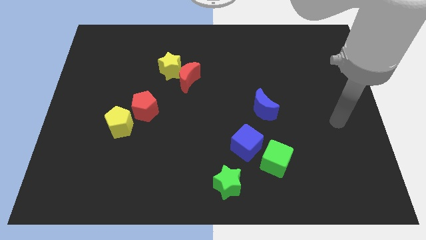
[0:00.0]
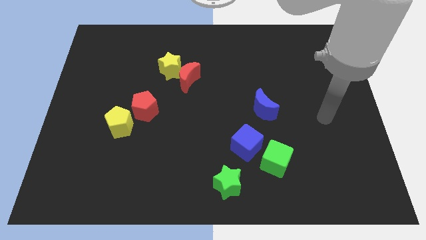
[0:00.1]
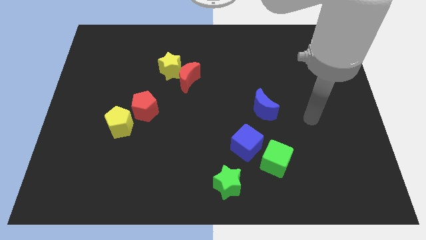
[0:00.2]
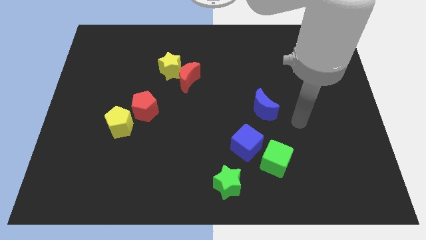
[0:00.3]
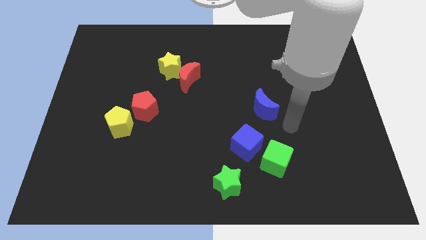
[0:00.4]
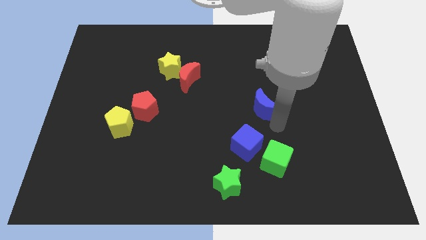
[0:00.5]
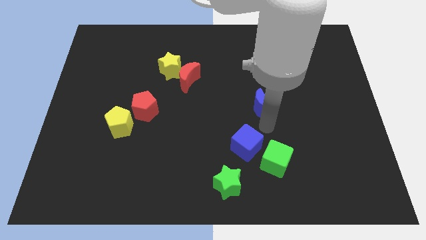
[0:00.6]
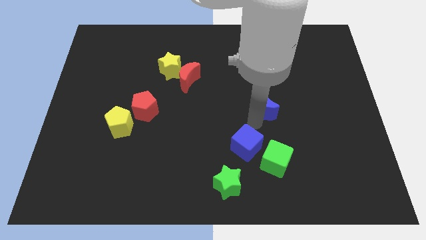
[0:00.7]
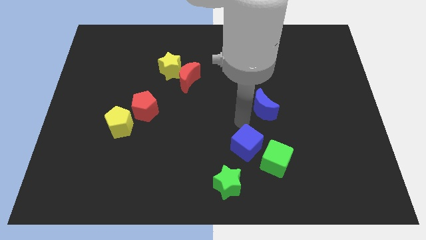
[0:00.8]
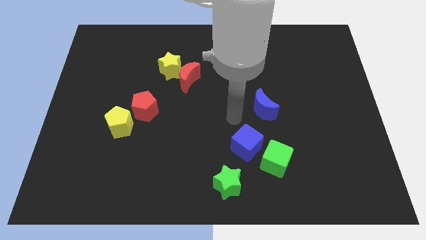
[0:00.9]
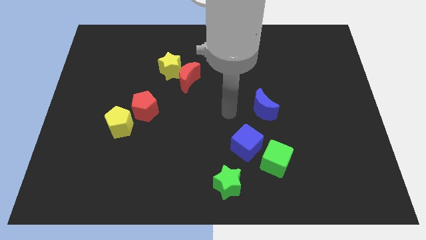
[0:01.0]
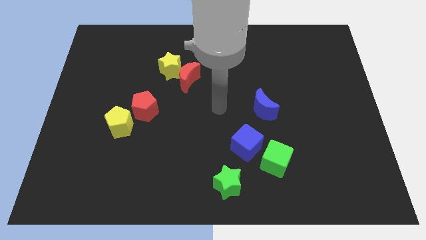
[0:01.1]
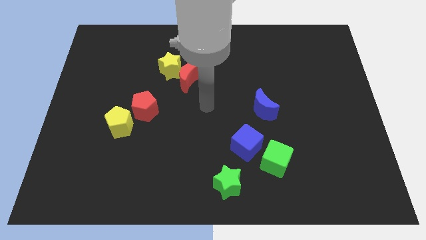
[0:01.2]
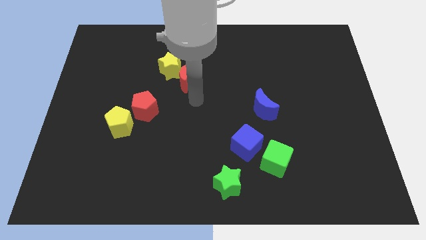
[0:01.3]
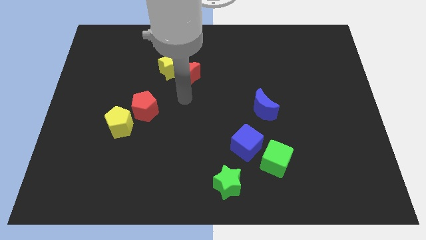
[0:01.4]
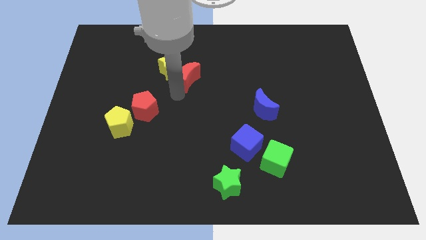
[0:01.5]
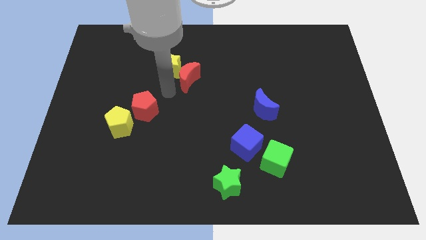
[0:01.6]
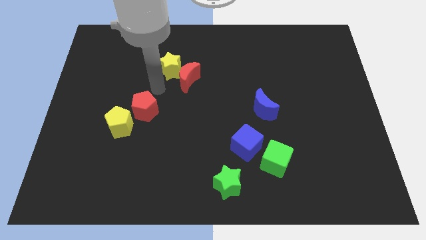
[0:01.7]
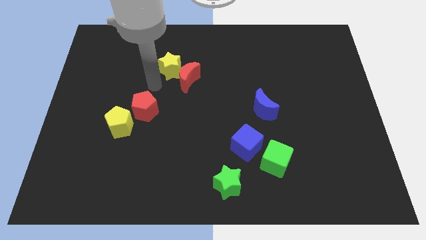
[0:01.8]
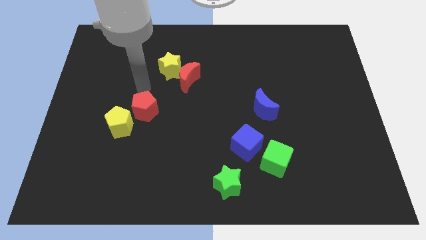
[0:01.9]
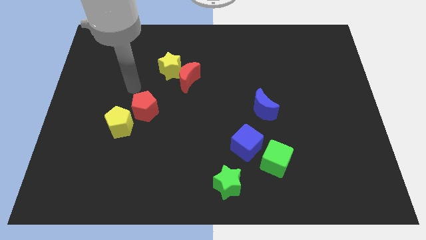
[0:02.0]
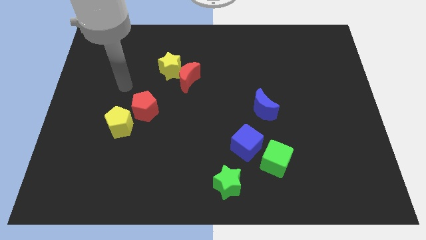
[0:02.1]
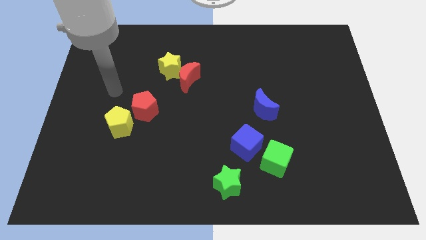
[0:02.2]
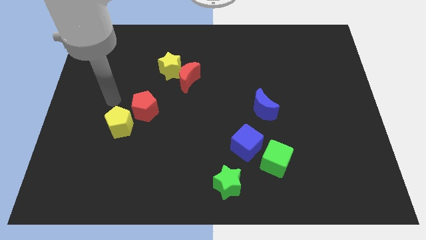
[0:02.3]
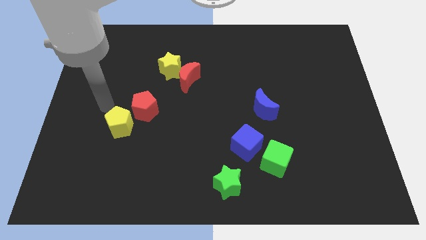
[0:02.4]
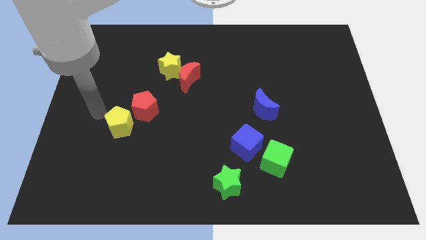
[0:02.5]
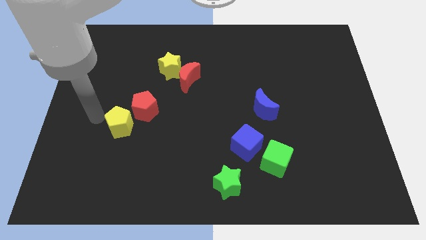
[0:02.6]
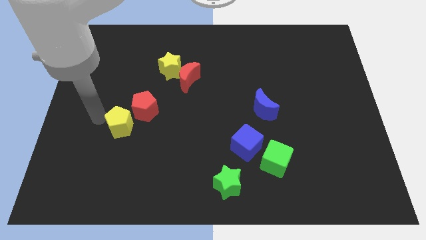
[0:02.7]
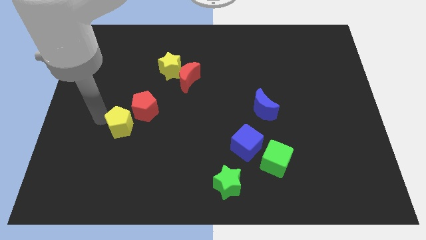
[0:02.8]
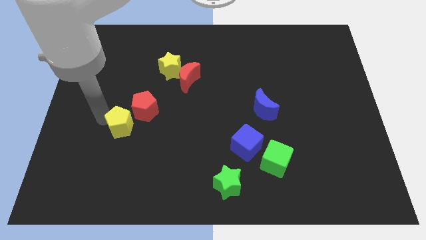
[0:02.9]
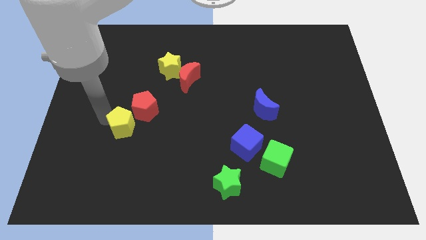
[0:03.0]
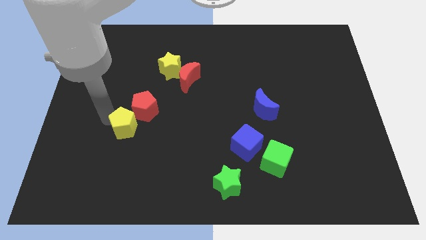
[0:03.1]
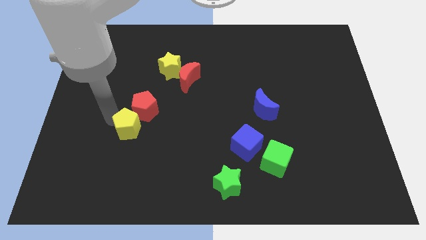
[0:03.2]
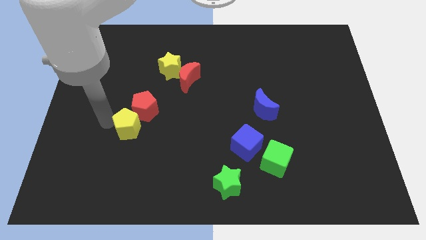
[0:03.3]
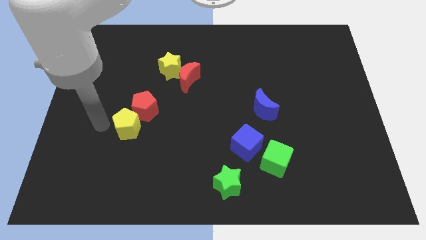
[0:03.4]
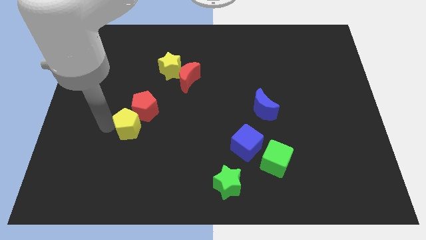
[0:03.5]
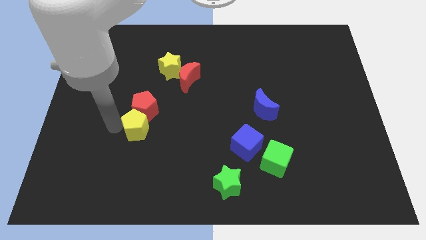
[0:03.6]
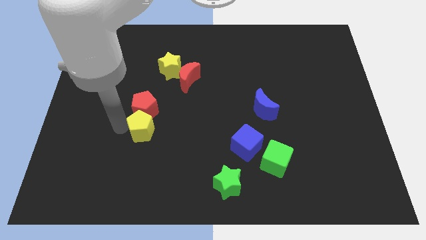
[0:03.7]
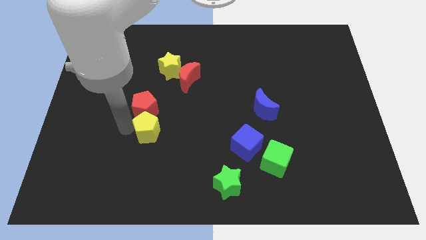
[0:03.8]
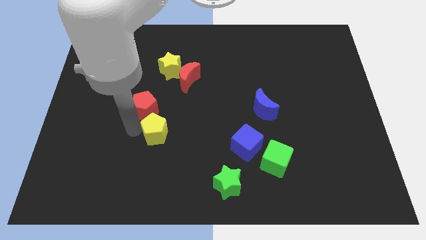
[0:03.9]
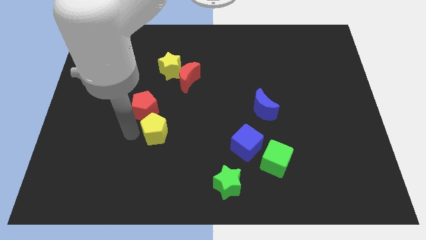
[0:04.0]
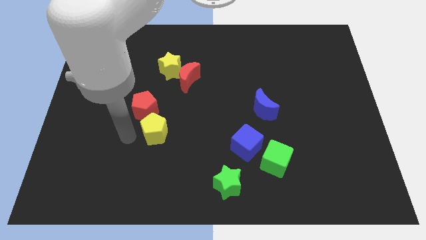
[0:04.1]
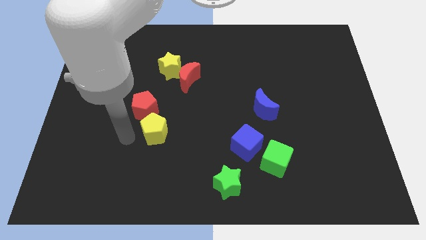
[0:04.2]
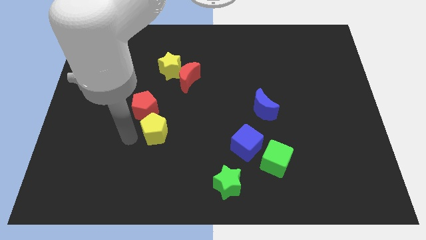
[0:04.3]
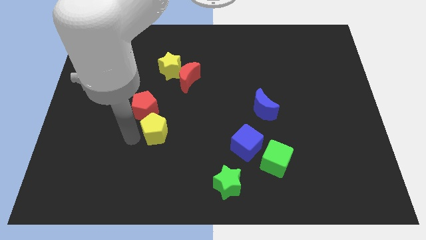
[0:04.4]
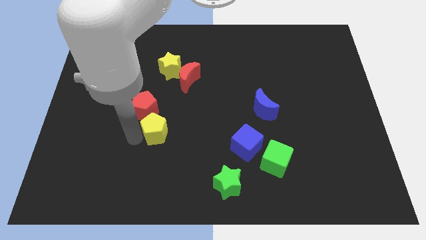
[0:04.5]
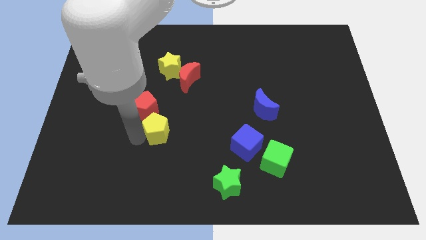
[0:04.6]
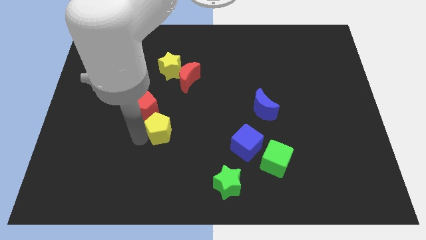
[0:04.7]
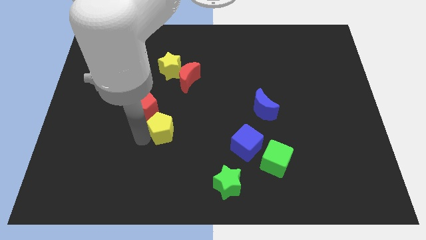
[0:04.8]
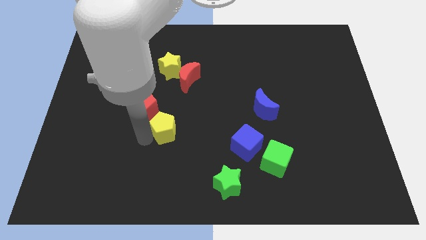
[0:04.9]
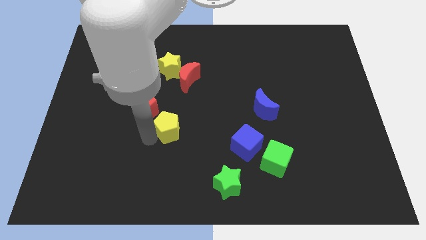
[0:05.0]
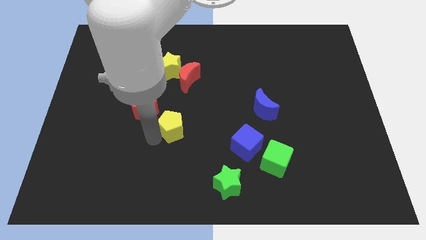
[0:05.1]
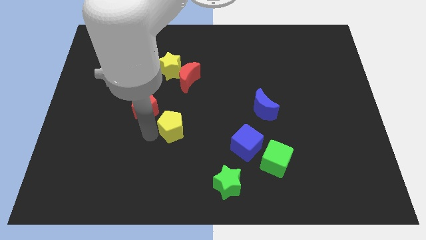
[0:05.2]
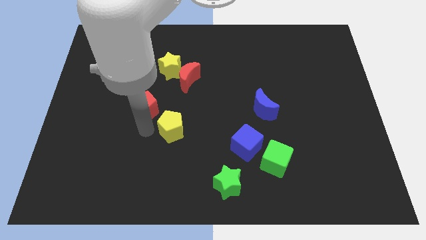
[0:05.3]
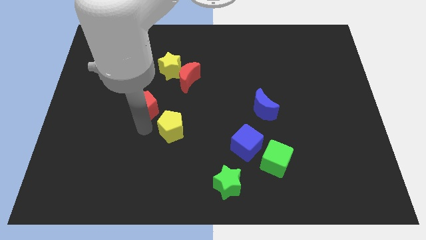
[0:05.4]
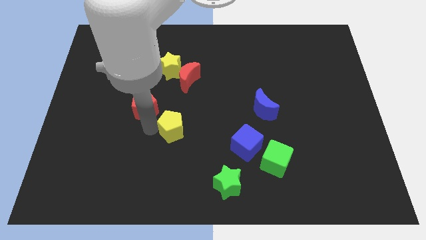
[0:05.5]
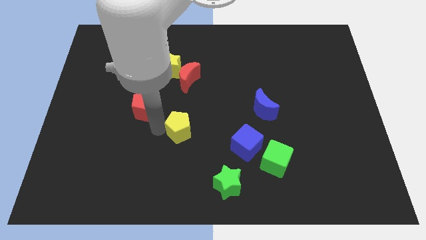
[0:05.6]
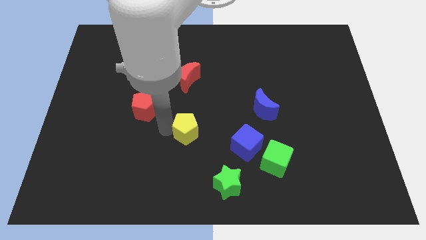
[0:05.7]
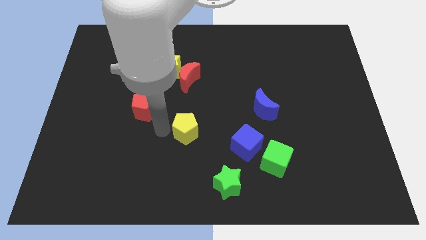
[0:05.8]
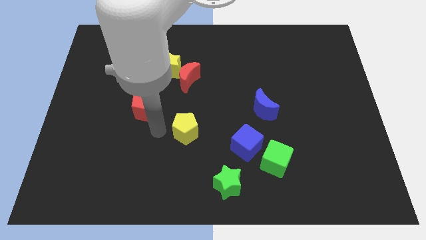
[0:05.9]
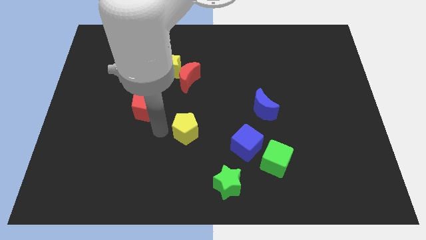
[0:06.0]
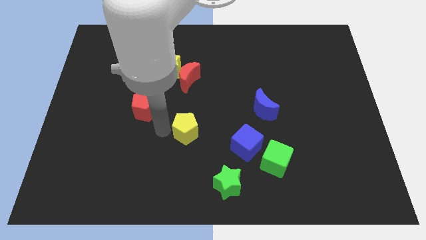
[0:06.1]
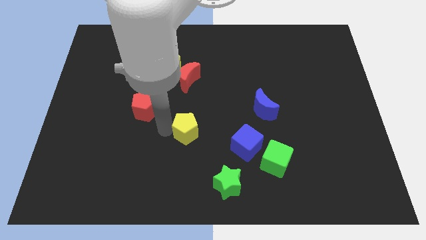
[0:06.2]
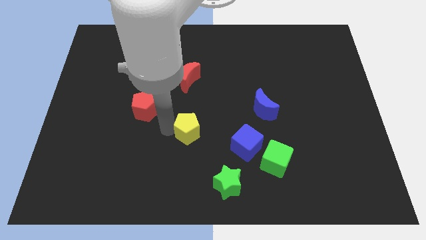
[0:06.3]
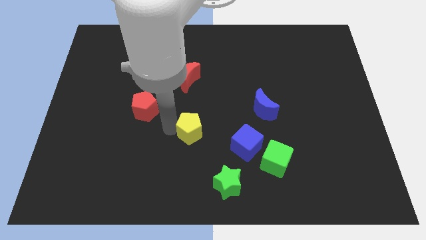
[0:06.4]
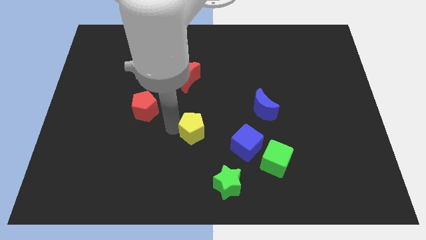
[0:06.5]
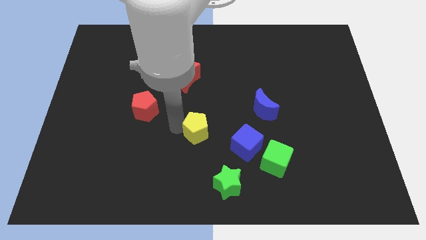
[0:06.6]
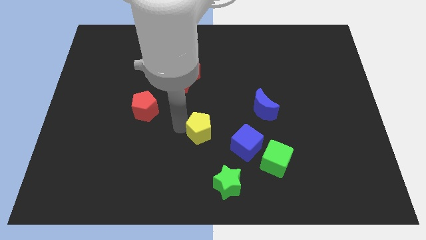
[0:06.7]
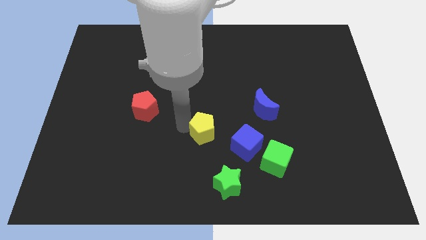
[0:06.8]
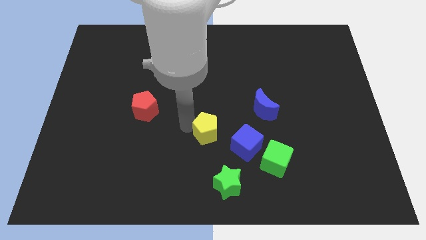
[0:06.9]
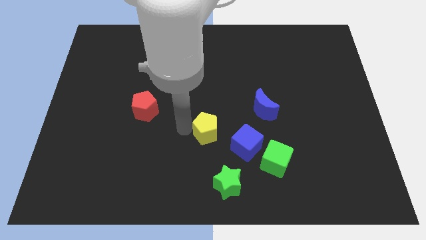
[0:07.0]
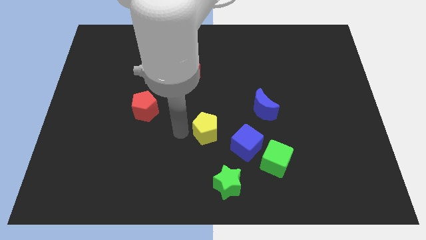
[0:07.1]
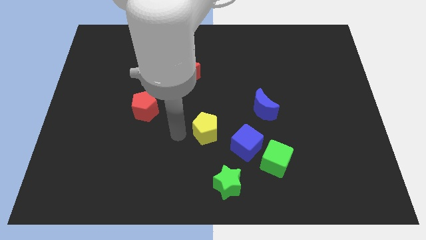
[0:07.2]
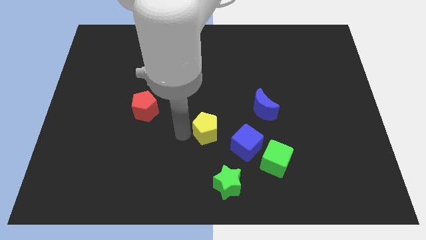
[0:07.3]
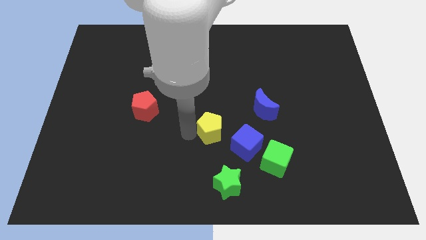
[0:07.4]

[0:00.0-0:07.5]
move the yellow pentagon right

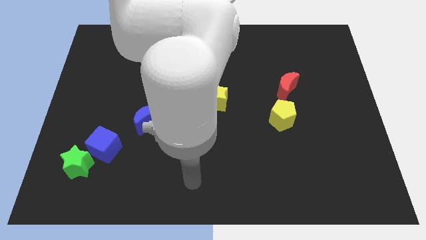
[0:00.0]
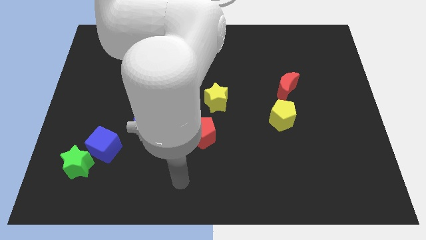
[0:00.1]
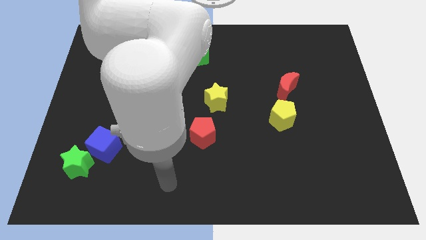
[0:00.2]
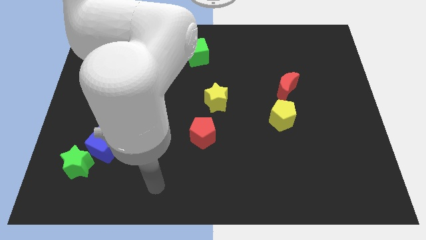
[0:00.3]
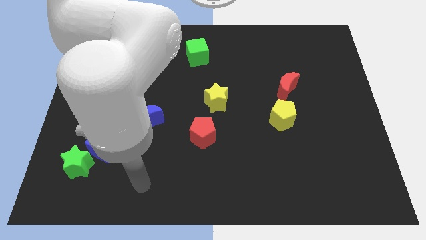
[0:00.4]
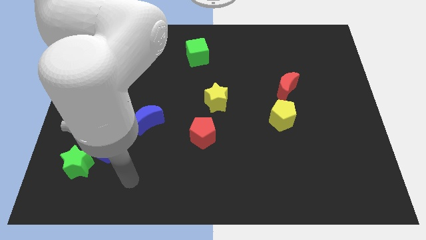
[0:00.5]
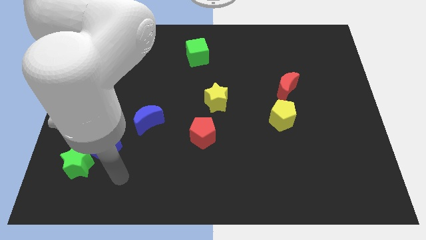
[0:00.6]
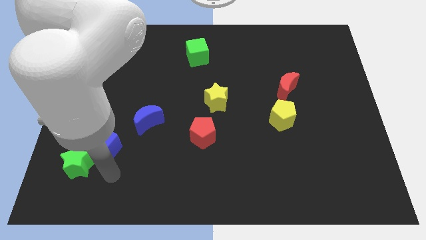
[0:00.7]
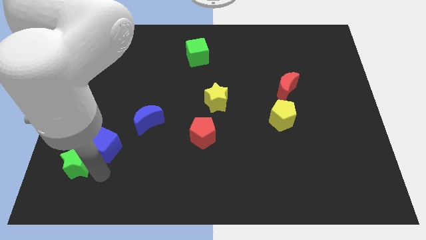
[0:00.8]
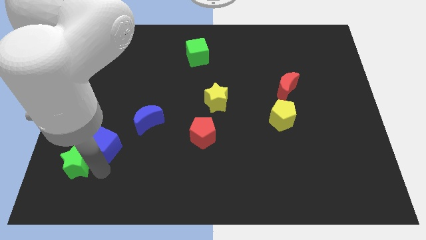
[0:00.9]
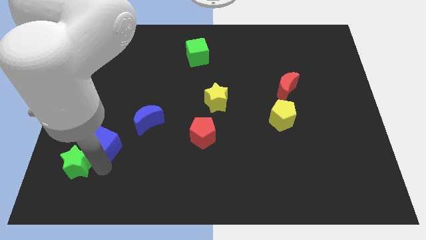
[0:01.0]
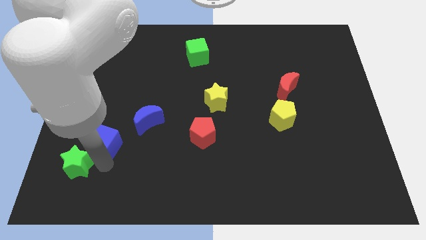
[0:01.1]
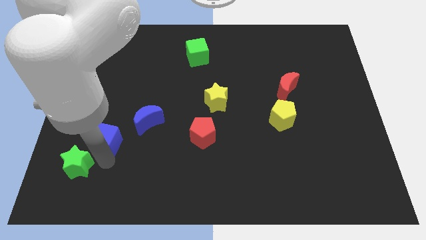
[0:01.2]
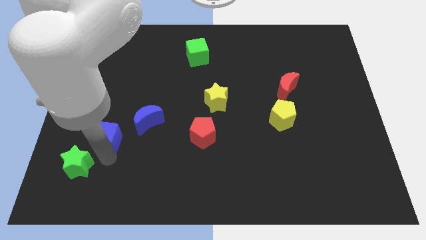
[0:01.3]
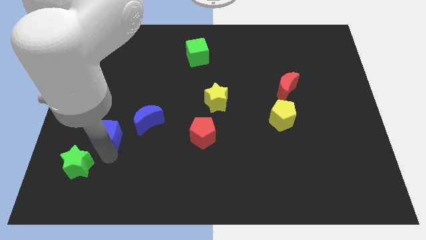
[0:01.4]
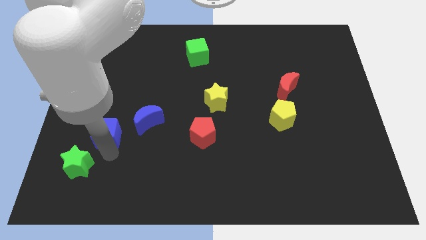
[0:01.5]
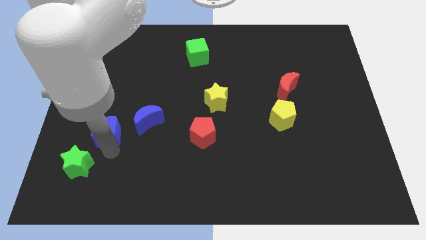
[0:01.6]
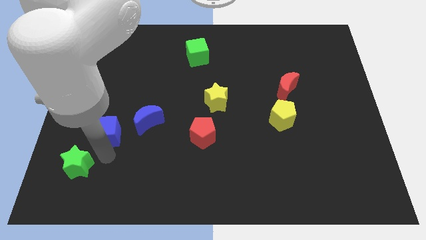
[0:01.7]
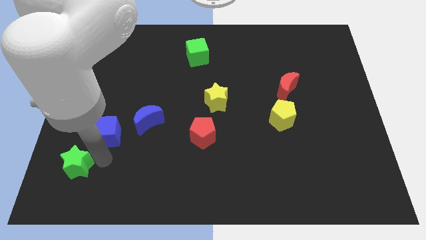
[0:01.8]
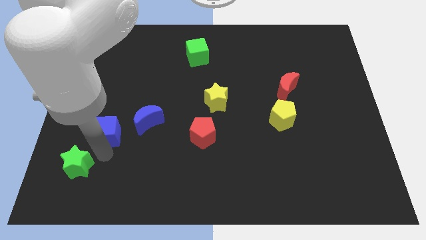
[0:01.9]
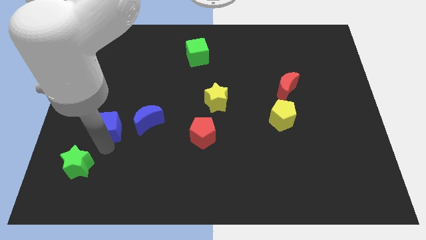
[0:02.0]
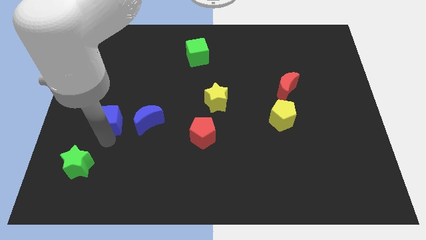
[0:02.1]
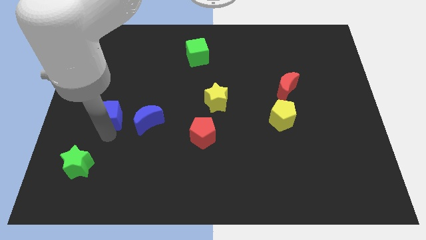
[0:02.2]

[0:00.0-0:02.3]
push the blue cube upwards slightly
